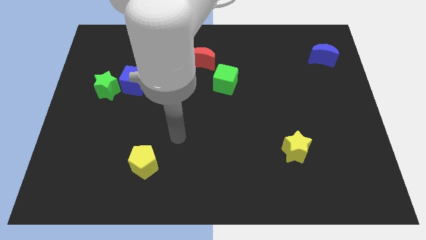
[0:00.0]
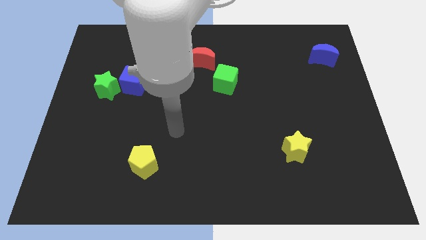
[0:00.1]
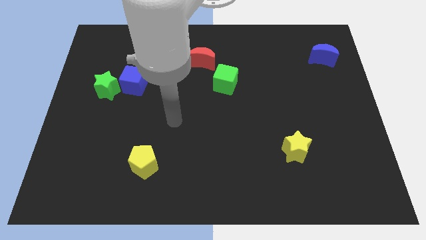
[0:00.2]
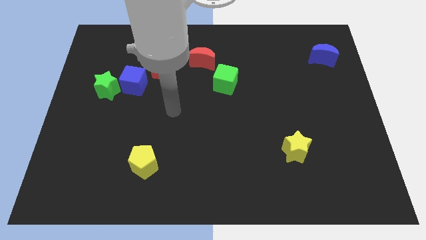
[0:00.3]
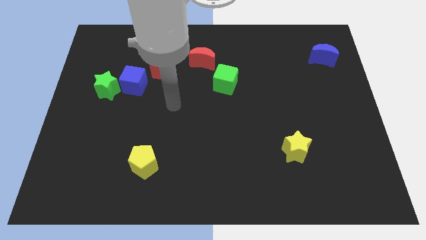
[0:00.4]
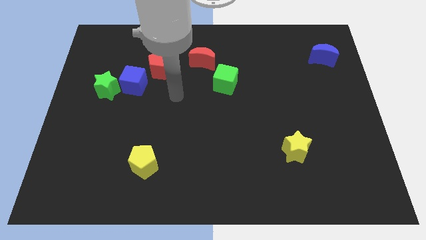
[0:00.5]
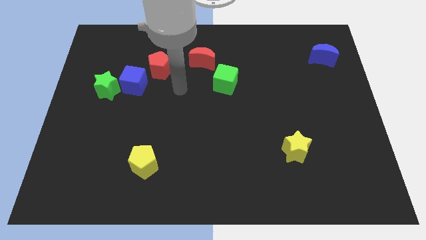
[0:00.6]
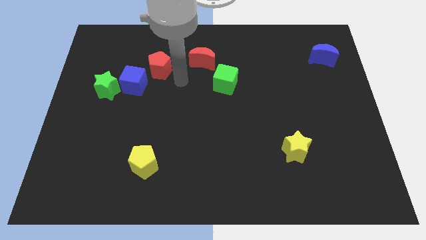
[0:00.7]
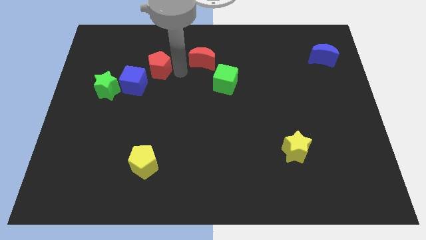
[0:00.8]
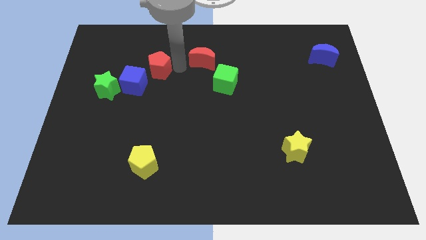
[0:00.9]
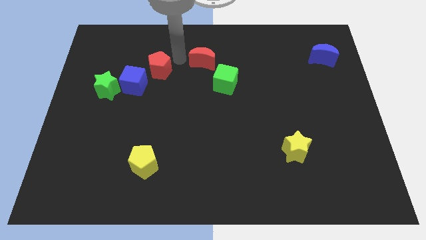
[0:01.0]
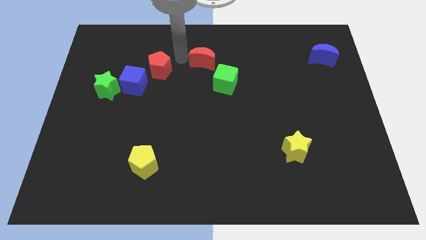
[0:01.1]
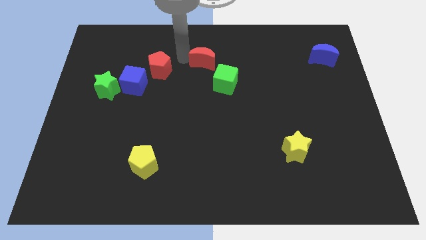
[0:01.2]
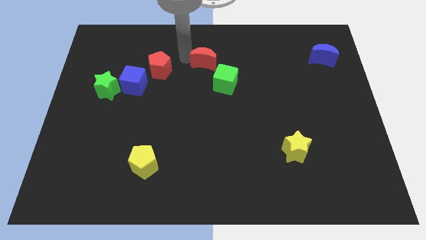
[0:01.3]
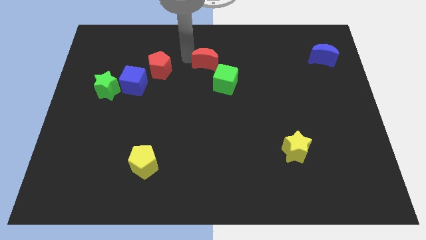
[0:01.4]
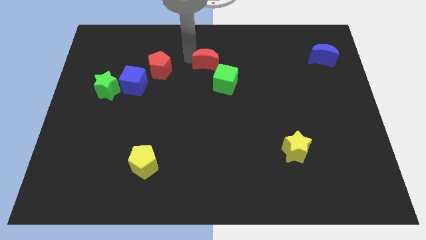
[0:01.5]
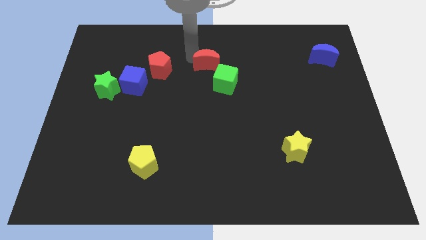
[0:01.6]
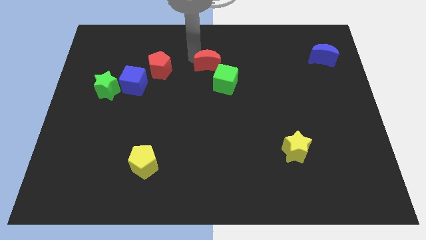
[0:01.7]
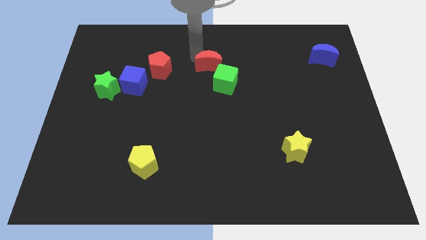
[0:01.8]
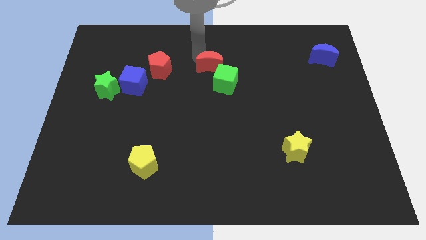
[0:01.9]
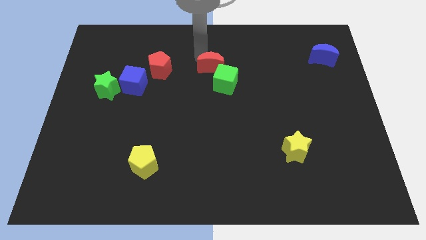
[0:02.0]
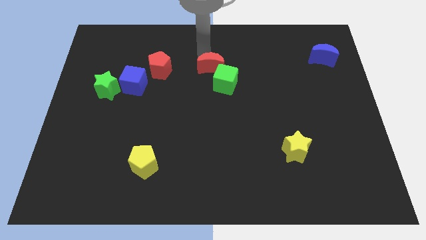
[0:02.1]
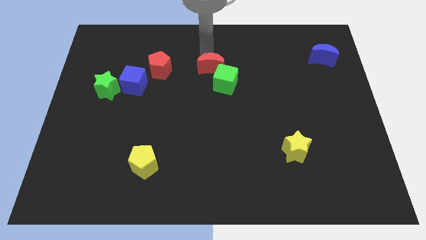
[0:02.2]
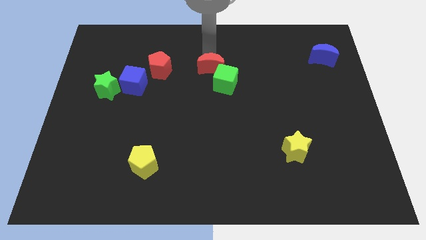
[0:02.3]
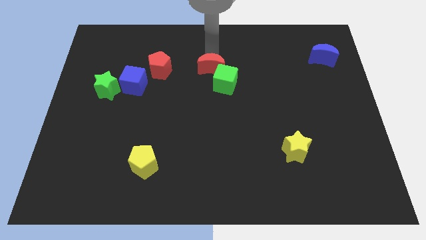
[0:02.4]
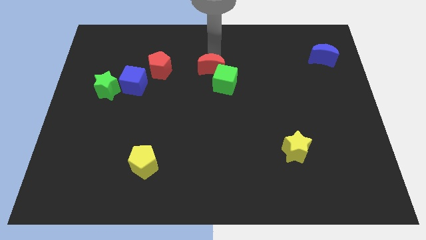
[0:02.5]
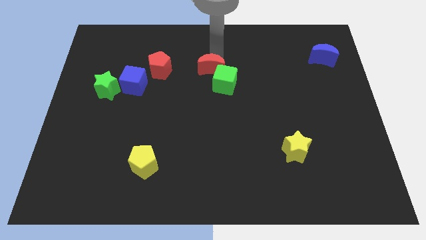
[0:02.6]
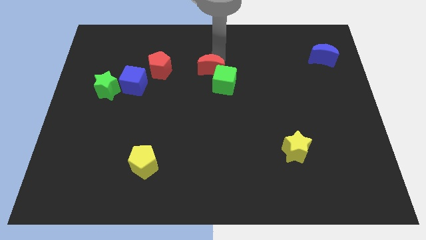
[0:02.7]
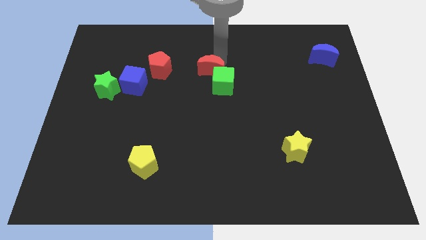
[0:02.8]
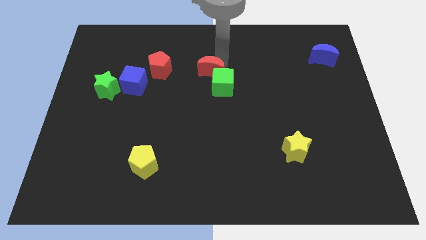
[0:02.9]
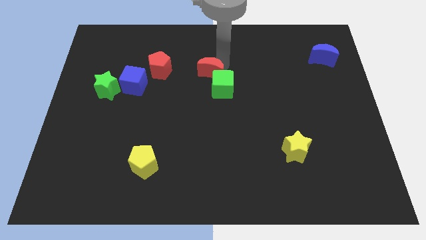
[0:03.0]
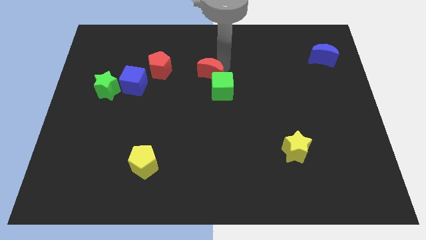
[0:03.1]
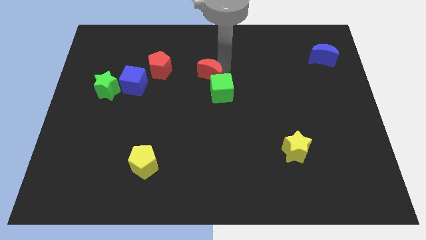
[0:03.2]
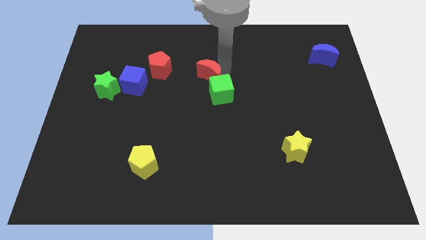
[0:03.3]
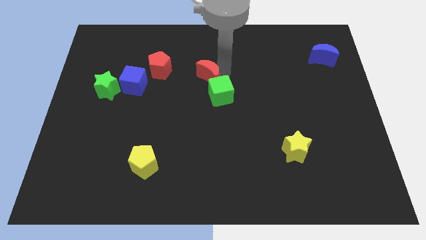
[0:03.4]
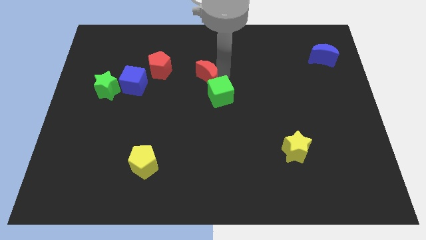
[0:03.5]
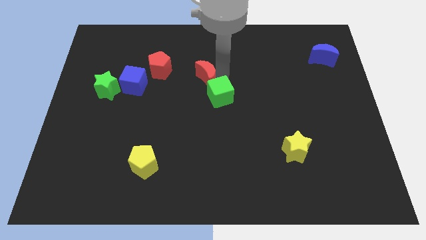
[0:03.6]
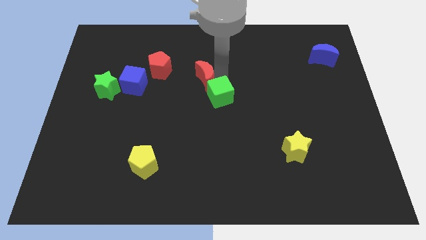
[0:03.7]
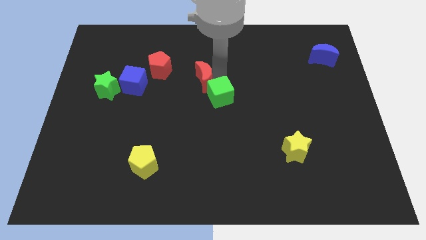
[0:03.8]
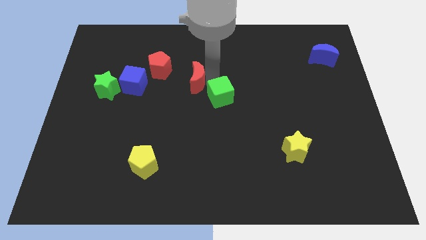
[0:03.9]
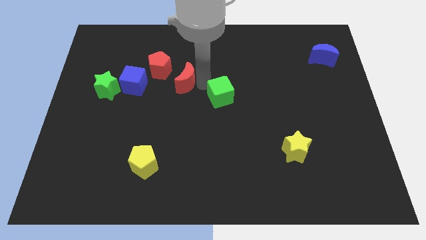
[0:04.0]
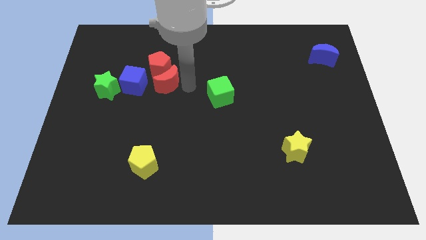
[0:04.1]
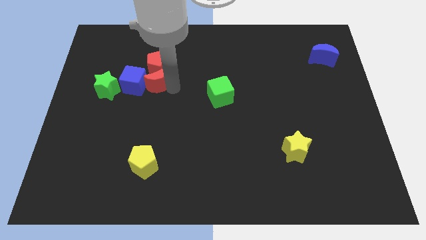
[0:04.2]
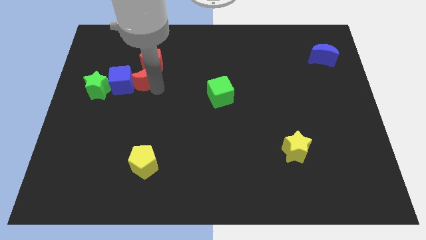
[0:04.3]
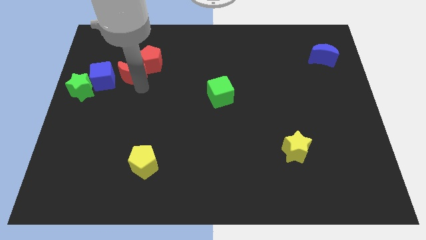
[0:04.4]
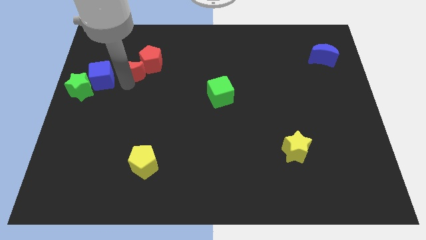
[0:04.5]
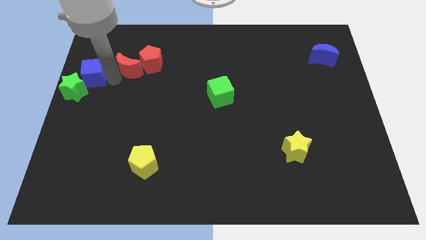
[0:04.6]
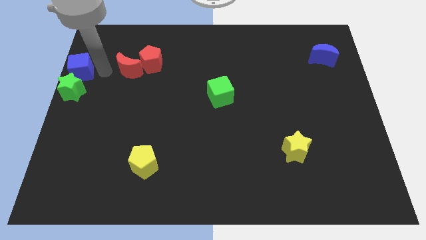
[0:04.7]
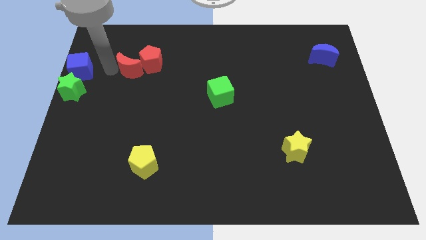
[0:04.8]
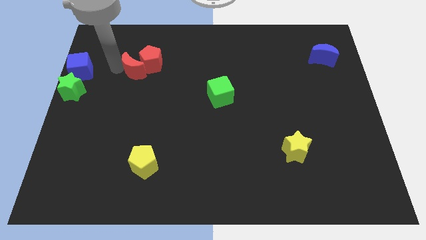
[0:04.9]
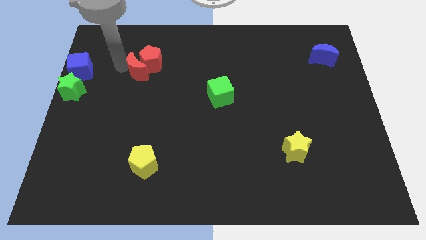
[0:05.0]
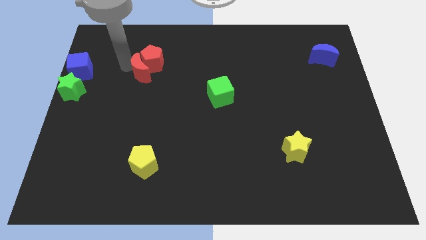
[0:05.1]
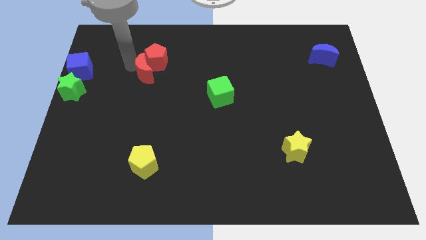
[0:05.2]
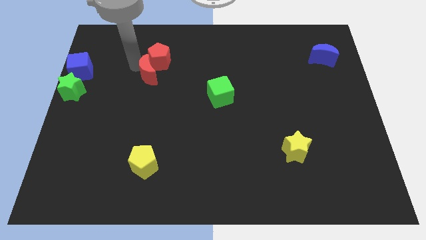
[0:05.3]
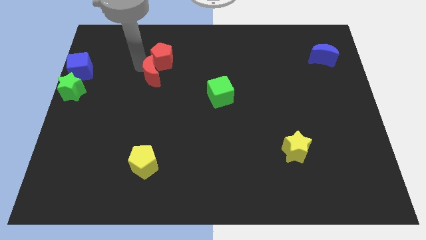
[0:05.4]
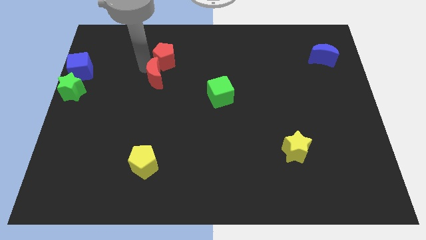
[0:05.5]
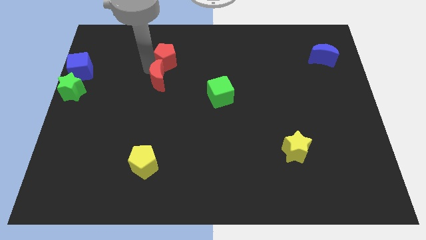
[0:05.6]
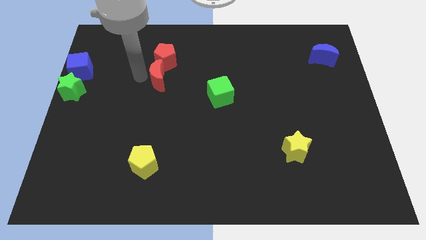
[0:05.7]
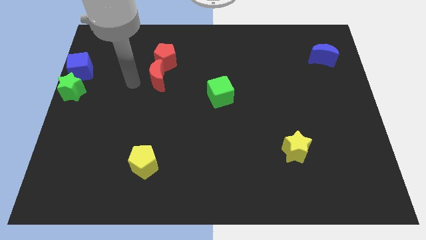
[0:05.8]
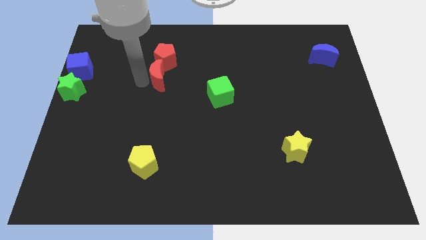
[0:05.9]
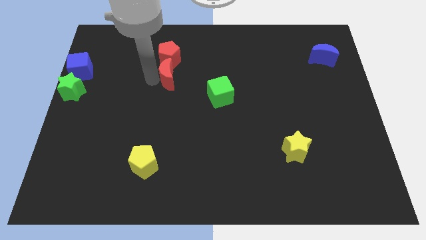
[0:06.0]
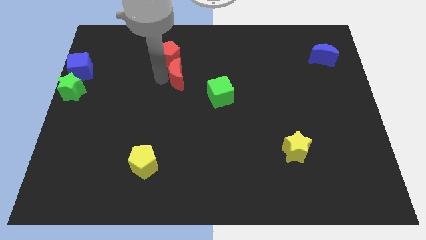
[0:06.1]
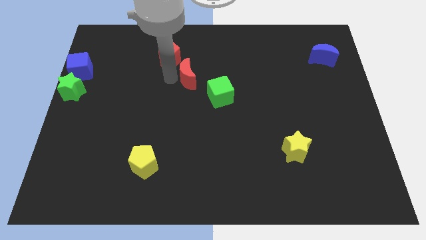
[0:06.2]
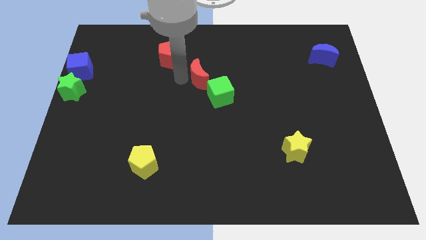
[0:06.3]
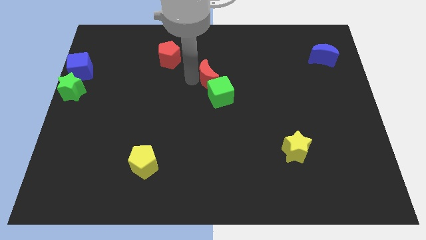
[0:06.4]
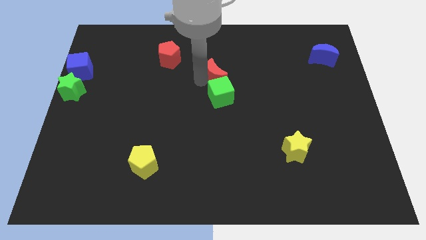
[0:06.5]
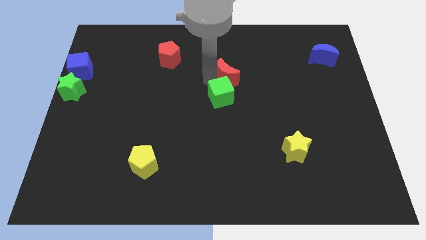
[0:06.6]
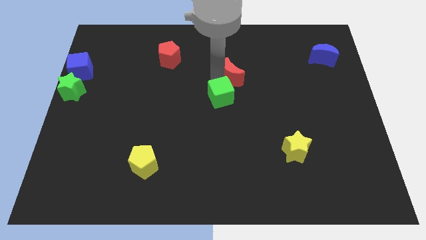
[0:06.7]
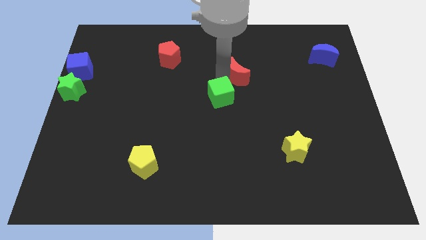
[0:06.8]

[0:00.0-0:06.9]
move the red moon right a little

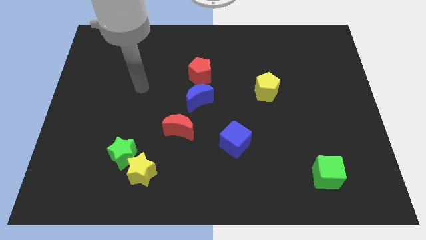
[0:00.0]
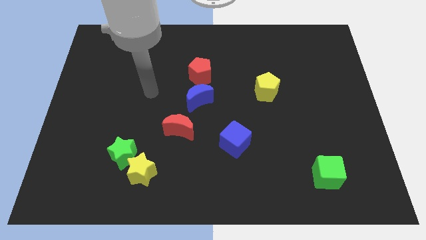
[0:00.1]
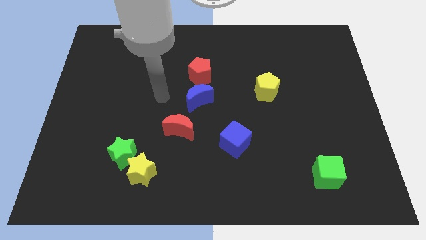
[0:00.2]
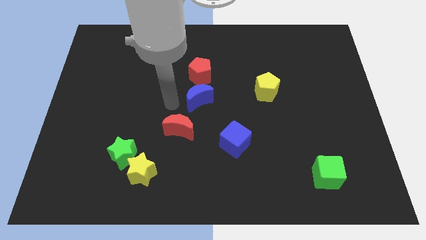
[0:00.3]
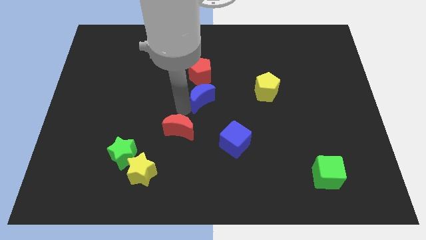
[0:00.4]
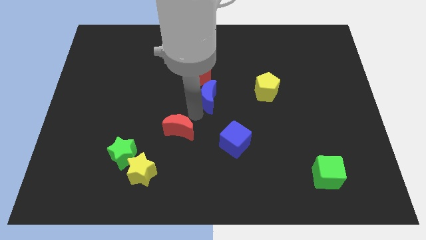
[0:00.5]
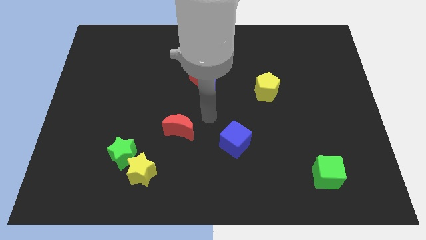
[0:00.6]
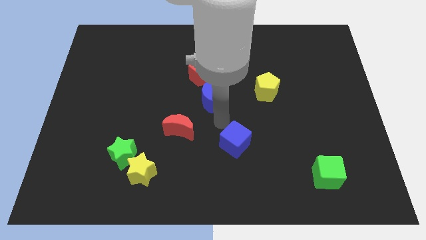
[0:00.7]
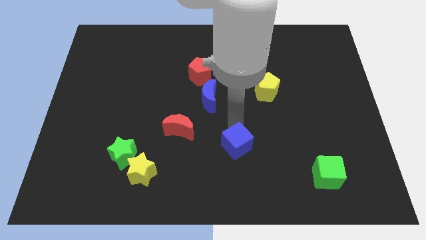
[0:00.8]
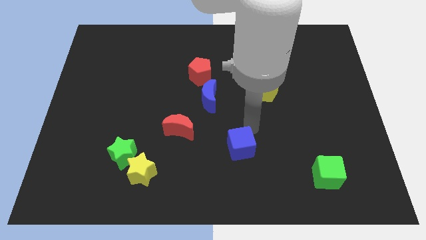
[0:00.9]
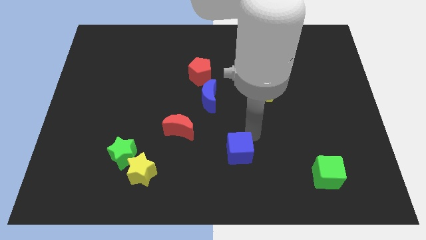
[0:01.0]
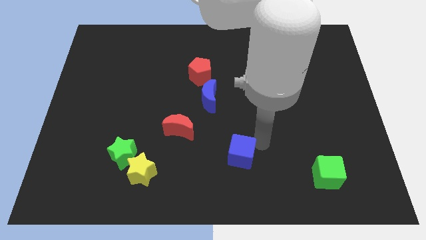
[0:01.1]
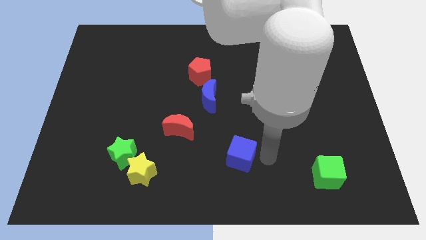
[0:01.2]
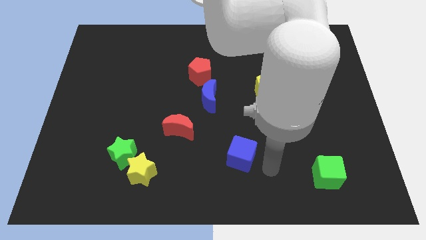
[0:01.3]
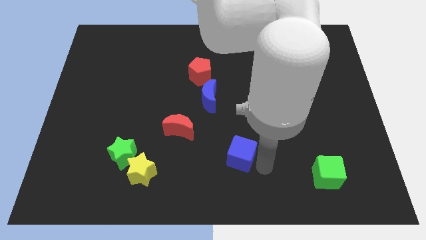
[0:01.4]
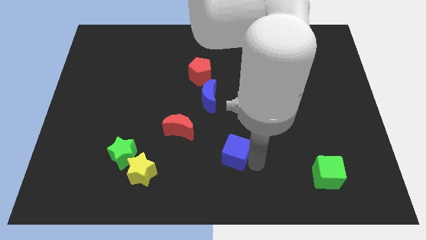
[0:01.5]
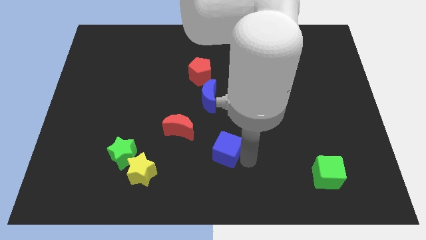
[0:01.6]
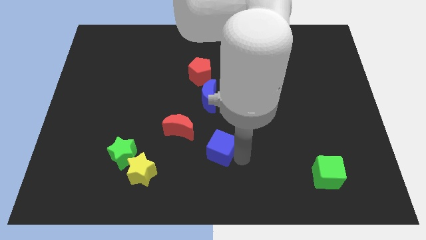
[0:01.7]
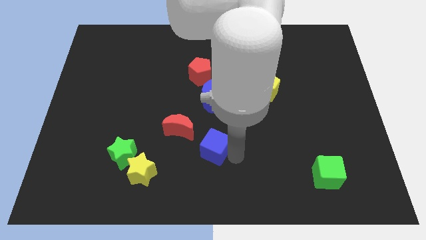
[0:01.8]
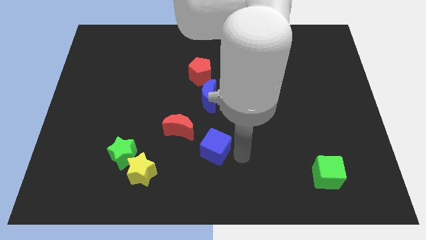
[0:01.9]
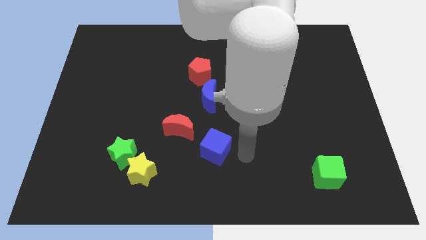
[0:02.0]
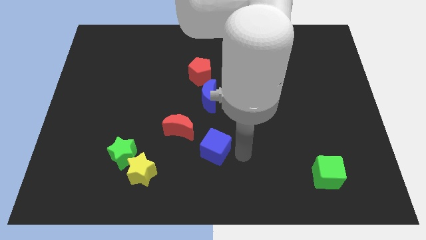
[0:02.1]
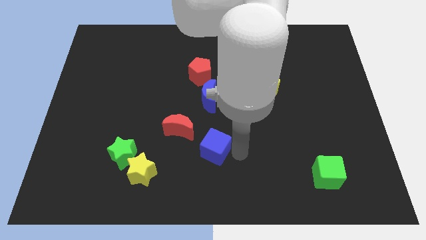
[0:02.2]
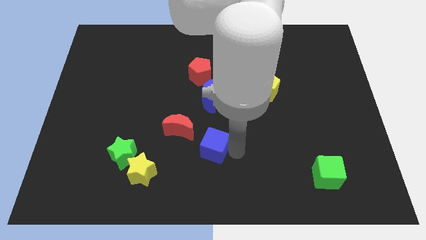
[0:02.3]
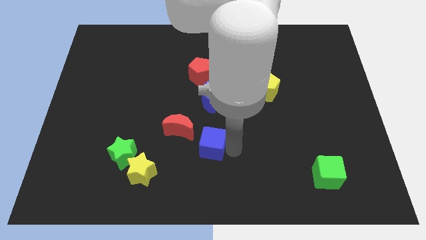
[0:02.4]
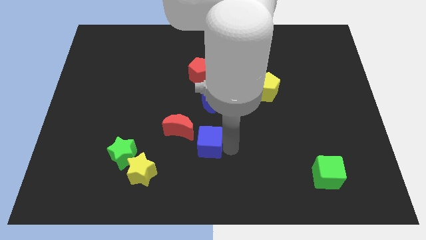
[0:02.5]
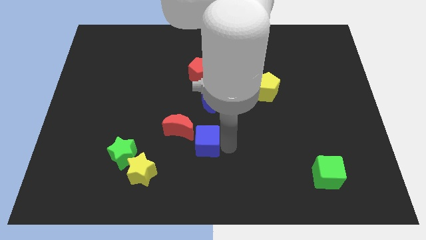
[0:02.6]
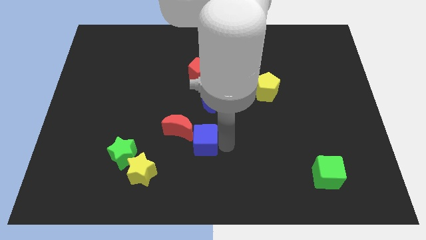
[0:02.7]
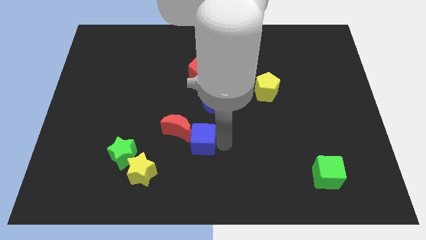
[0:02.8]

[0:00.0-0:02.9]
slide the blue cube a little left
